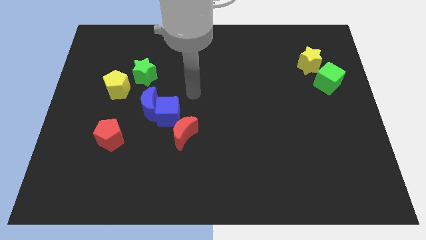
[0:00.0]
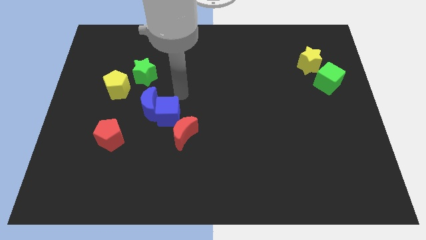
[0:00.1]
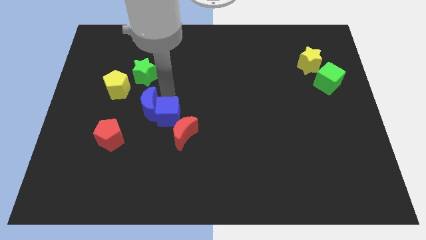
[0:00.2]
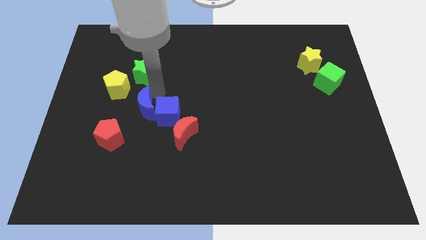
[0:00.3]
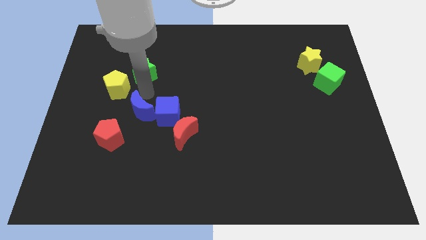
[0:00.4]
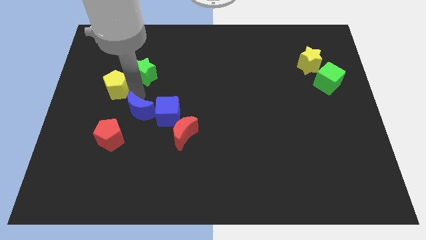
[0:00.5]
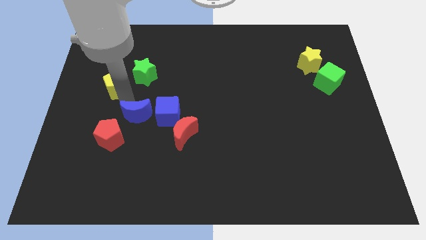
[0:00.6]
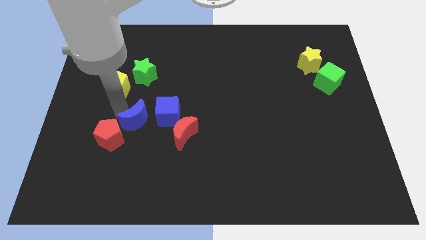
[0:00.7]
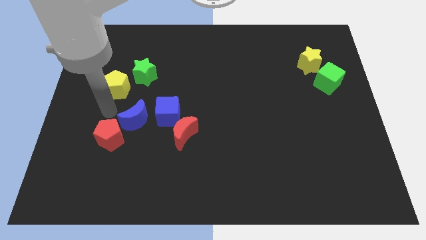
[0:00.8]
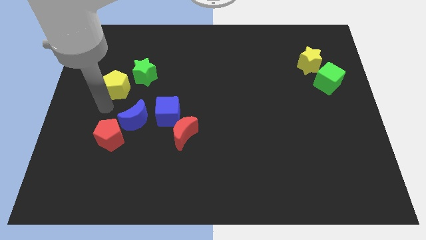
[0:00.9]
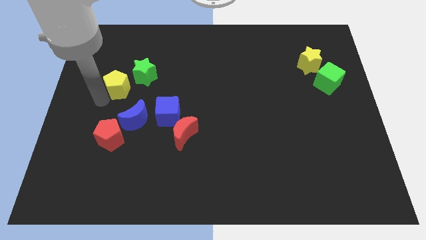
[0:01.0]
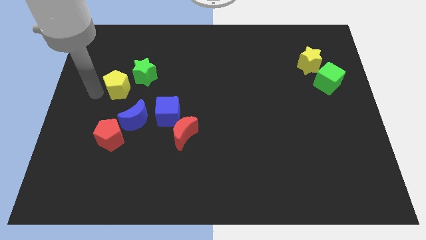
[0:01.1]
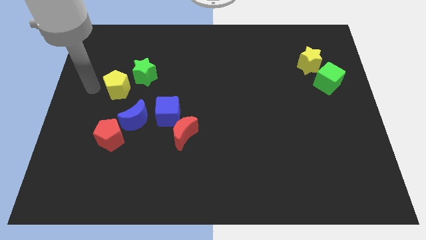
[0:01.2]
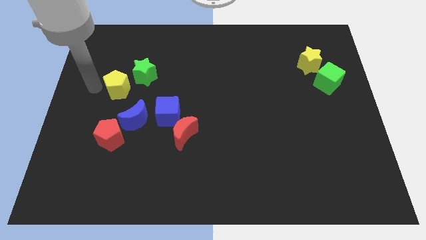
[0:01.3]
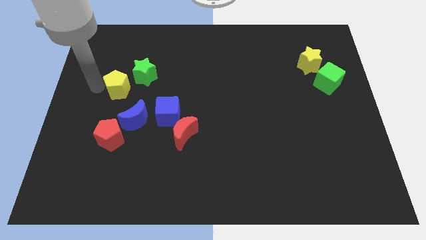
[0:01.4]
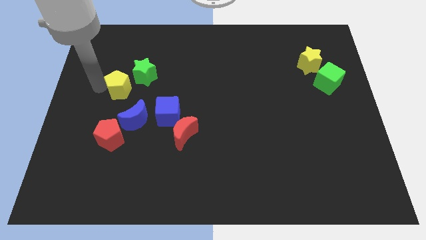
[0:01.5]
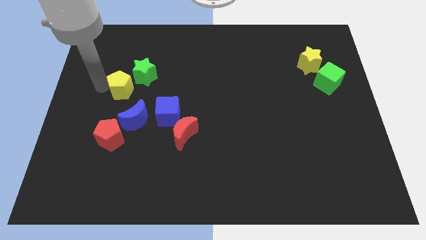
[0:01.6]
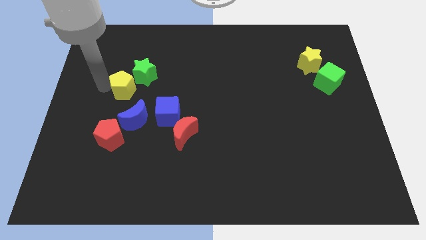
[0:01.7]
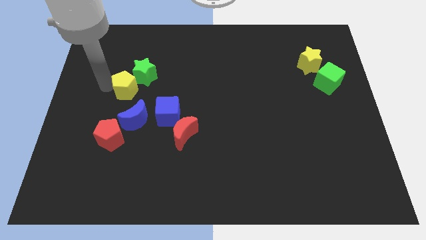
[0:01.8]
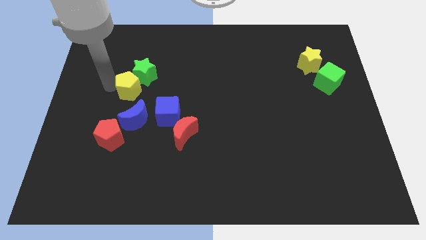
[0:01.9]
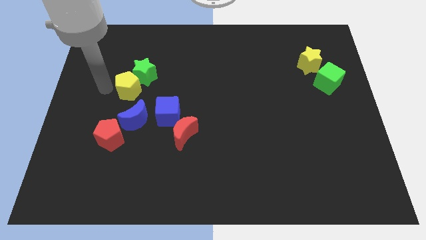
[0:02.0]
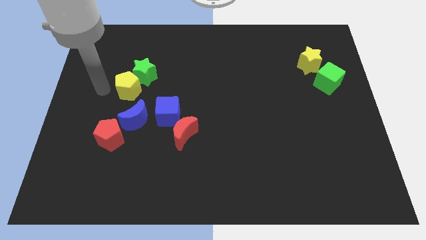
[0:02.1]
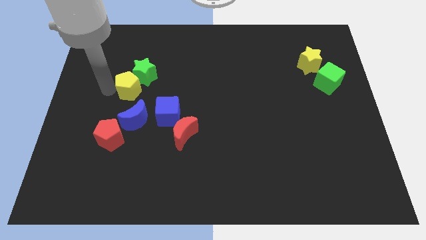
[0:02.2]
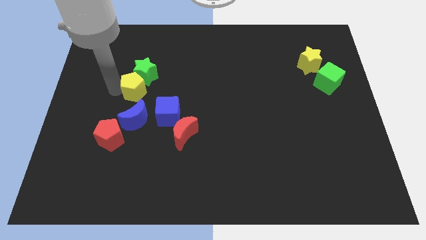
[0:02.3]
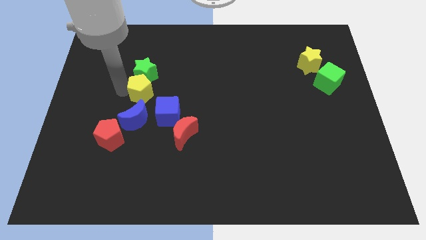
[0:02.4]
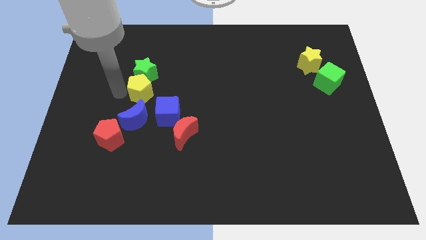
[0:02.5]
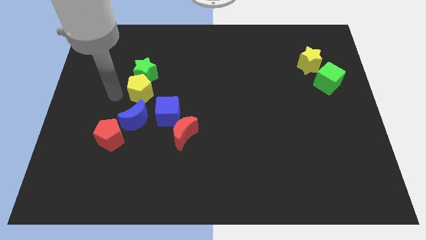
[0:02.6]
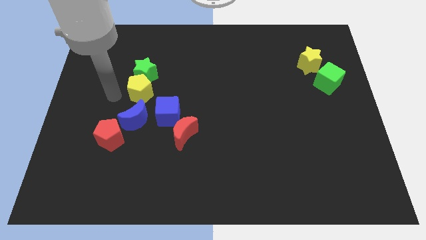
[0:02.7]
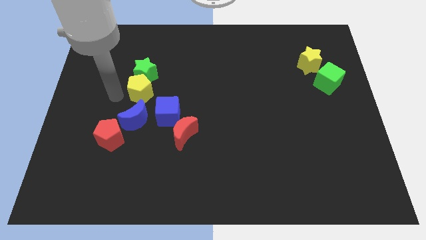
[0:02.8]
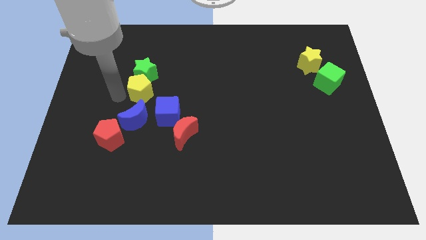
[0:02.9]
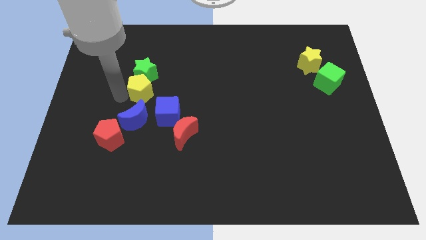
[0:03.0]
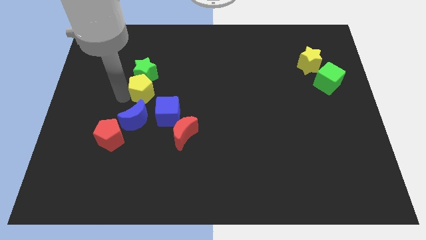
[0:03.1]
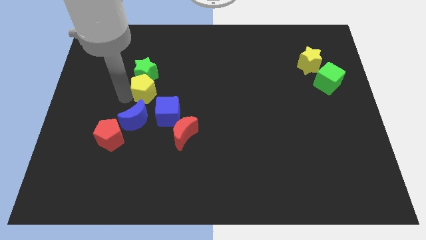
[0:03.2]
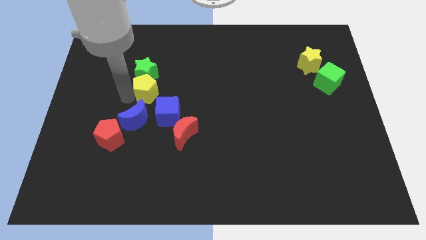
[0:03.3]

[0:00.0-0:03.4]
slightly move the yellow pentagon right

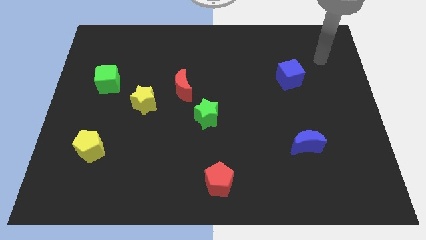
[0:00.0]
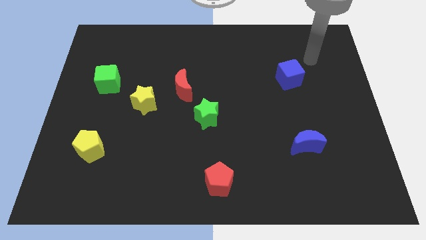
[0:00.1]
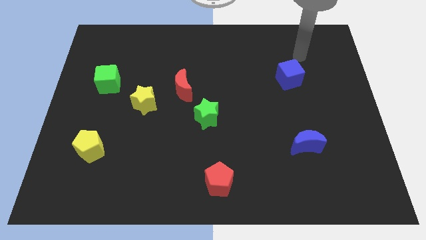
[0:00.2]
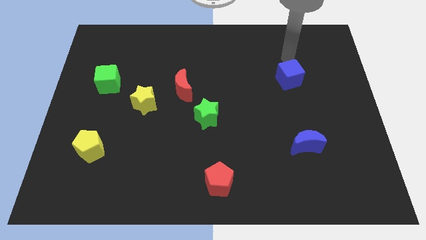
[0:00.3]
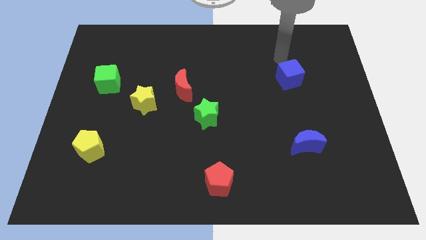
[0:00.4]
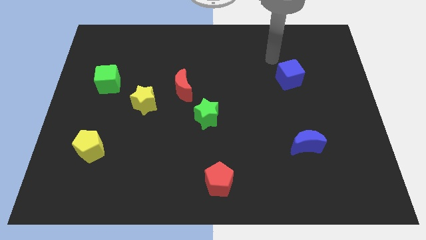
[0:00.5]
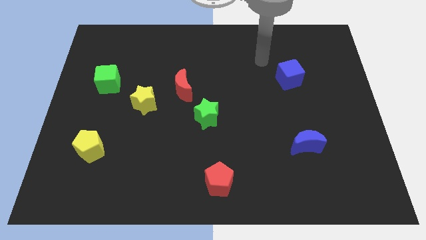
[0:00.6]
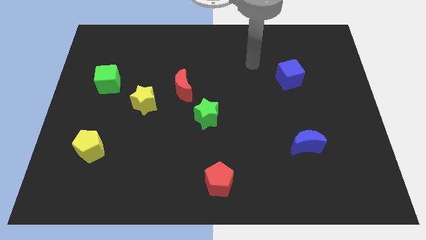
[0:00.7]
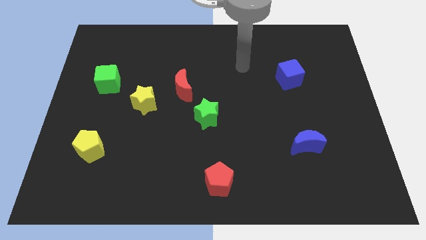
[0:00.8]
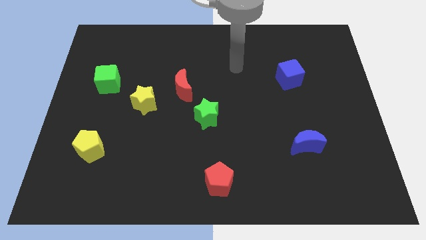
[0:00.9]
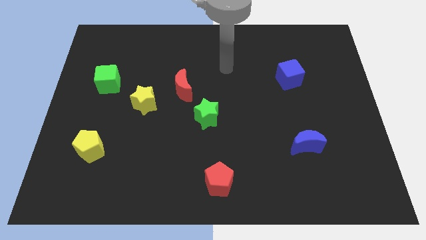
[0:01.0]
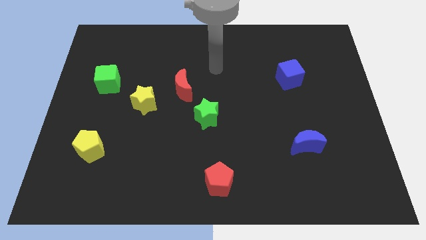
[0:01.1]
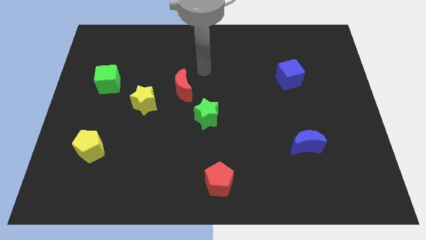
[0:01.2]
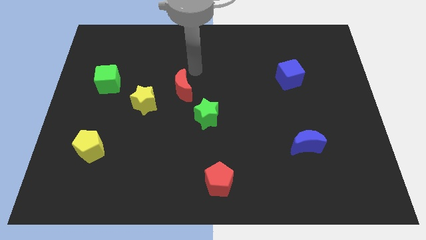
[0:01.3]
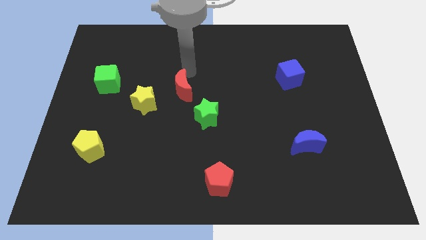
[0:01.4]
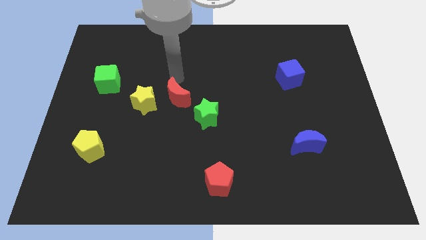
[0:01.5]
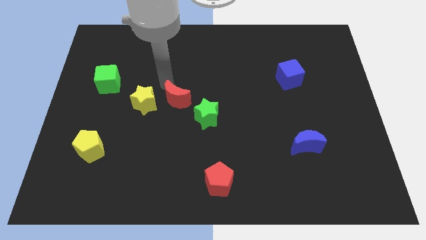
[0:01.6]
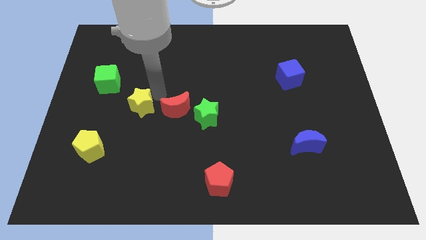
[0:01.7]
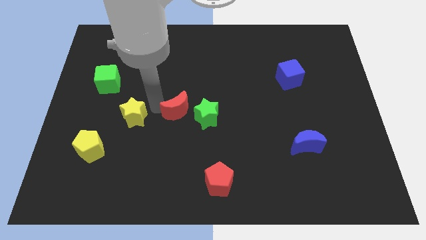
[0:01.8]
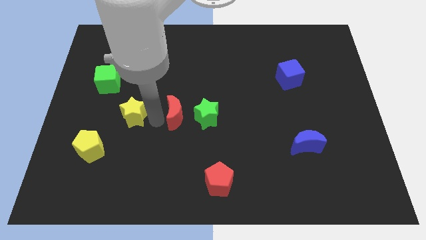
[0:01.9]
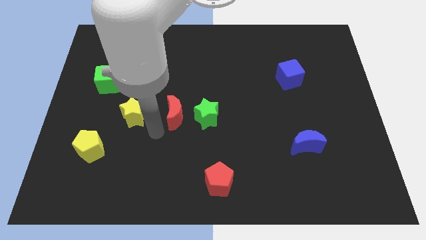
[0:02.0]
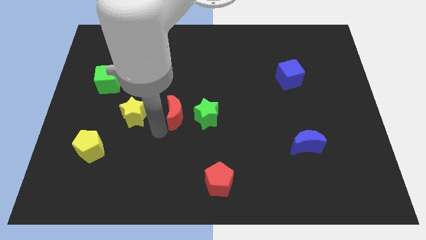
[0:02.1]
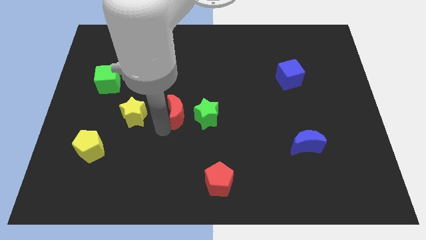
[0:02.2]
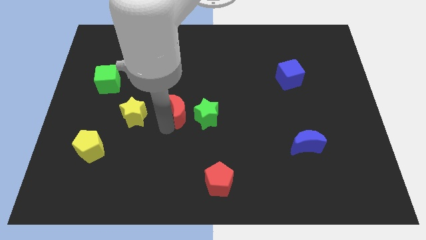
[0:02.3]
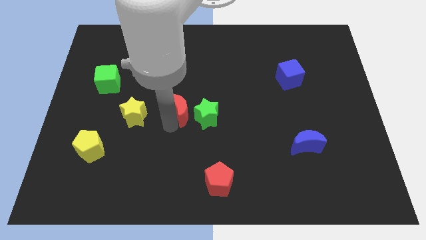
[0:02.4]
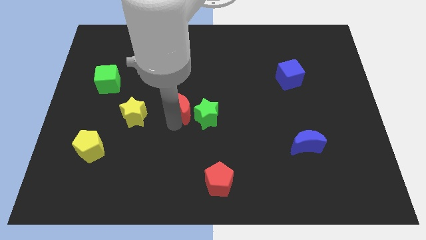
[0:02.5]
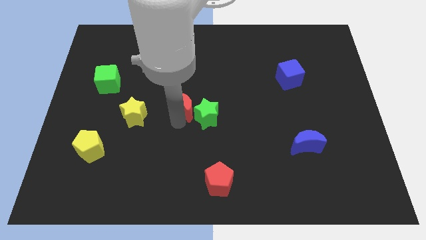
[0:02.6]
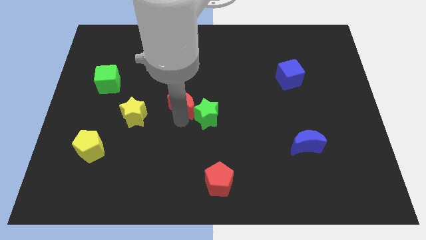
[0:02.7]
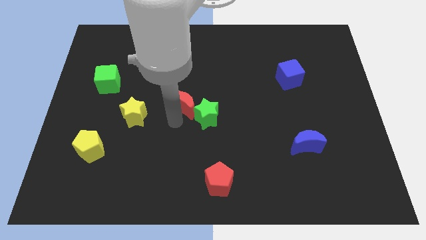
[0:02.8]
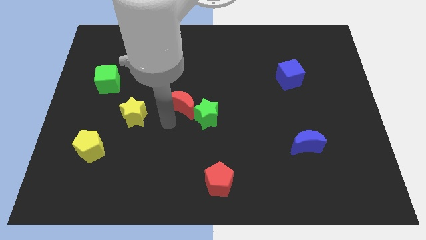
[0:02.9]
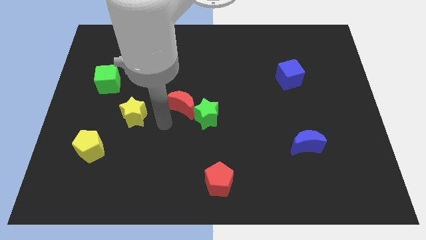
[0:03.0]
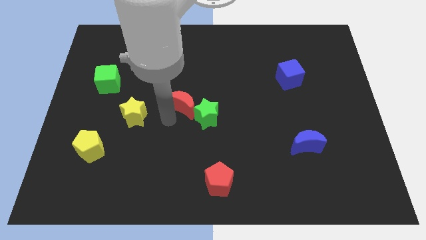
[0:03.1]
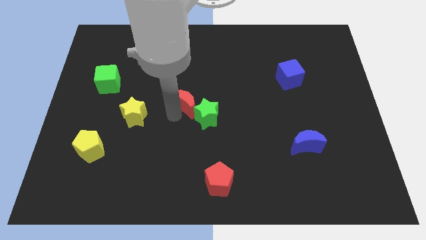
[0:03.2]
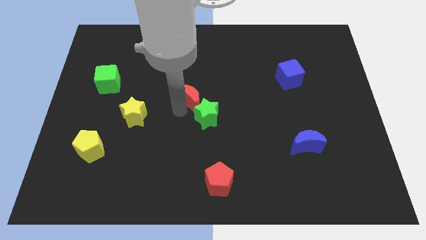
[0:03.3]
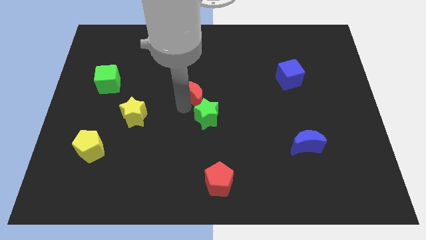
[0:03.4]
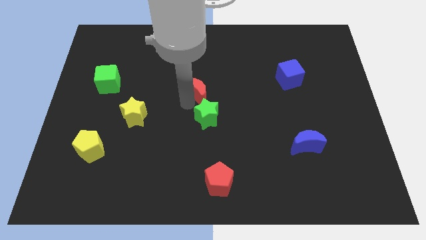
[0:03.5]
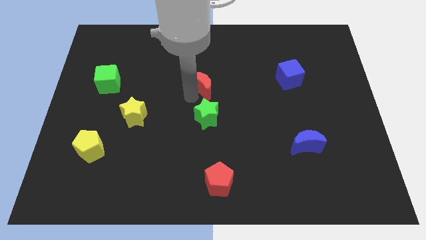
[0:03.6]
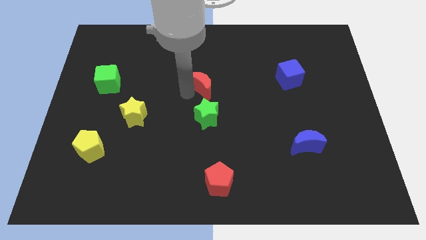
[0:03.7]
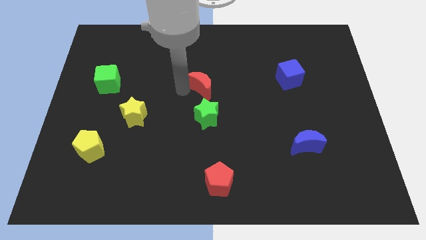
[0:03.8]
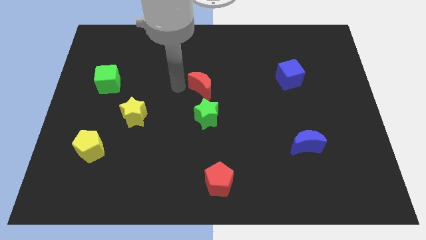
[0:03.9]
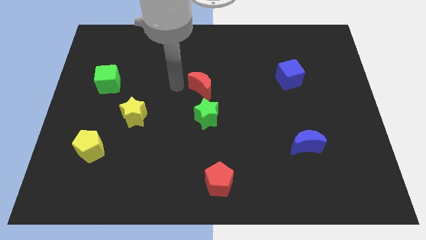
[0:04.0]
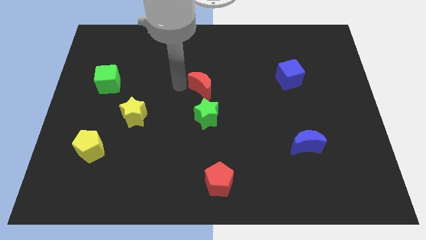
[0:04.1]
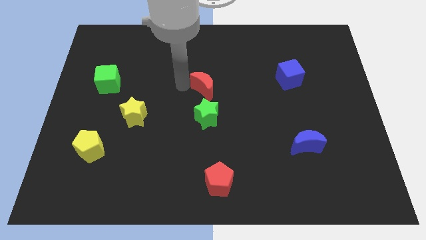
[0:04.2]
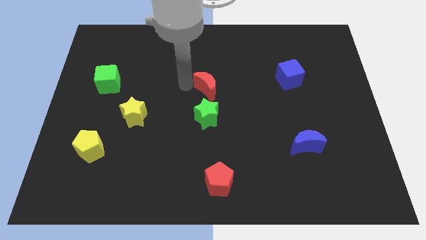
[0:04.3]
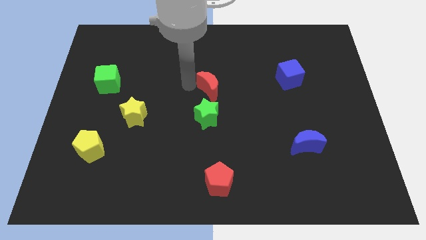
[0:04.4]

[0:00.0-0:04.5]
slightly push the red moon to the right
